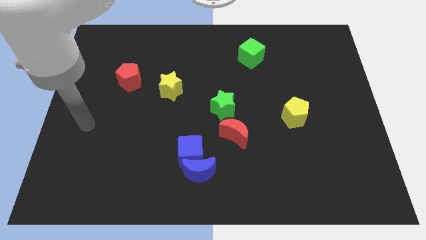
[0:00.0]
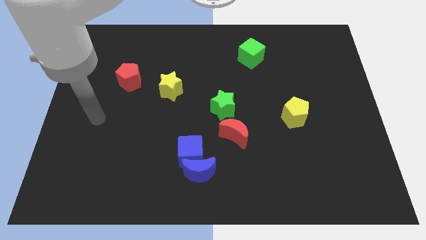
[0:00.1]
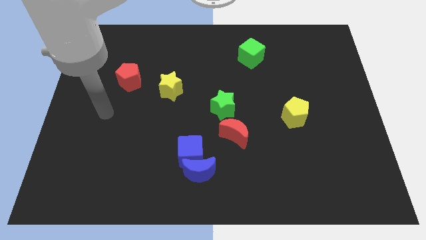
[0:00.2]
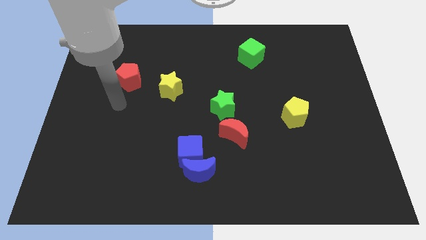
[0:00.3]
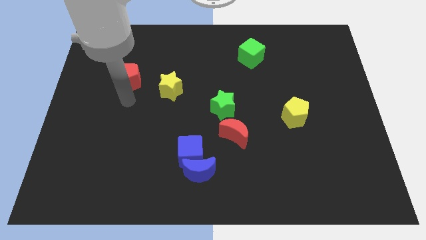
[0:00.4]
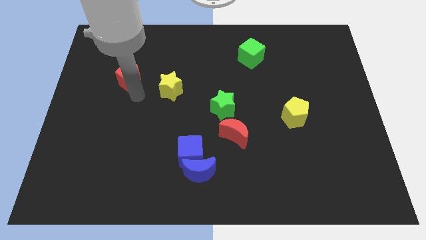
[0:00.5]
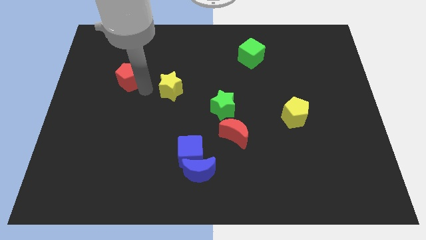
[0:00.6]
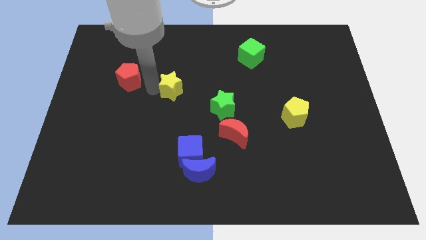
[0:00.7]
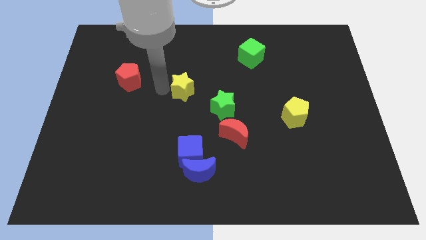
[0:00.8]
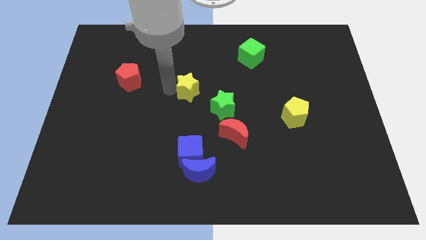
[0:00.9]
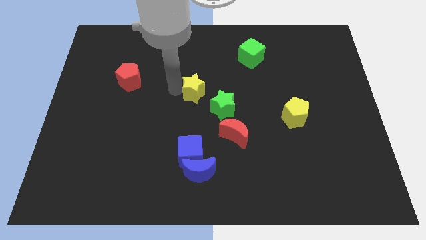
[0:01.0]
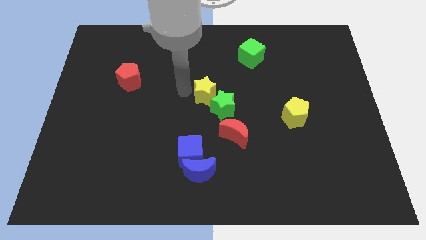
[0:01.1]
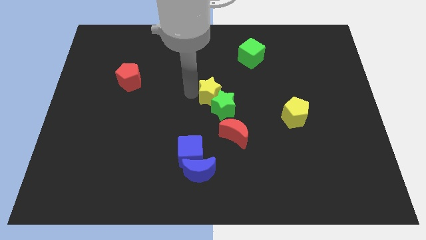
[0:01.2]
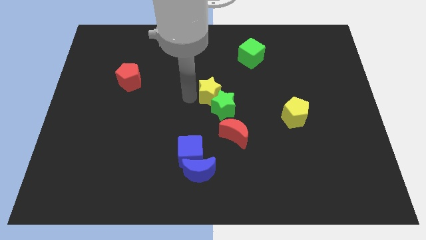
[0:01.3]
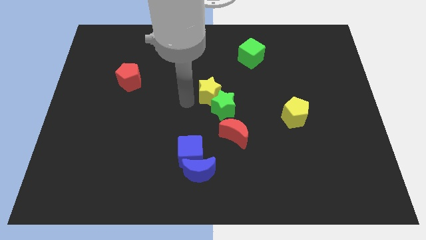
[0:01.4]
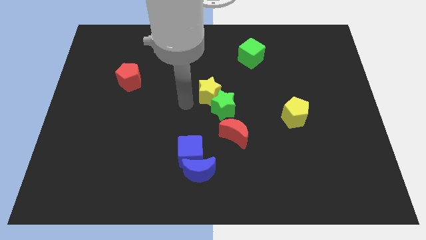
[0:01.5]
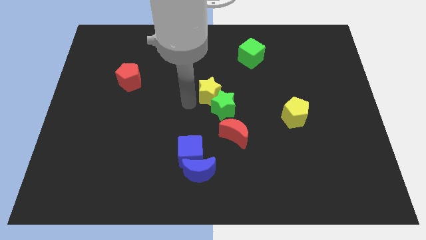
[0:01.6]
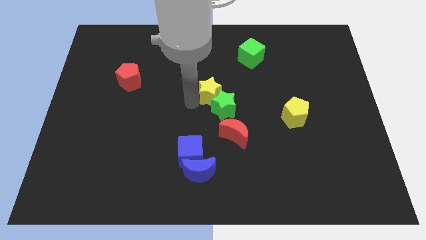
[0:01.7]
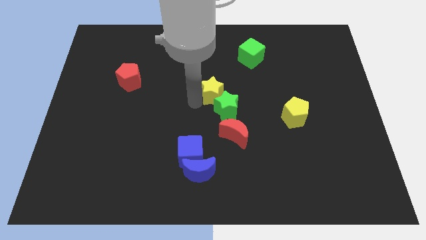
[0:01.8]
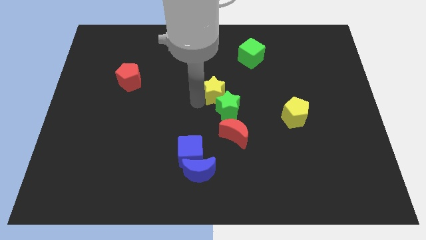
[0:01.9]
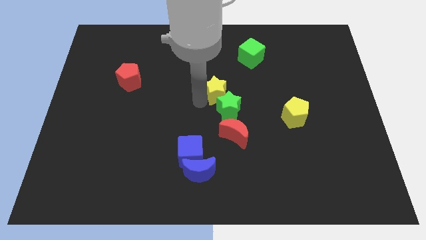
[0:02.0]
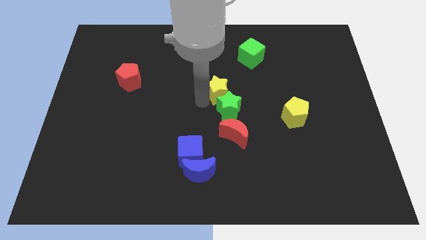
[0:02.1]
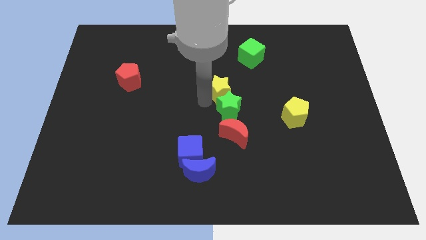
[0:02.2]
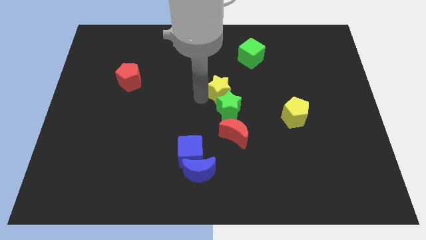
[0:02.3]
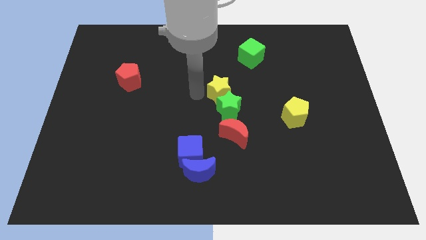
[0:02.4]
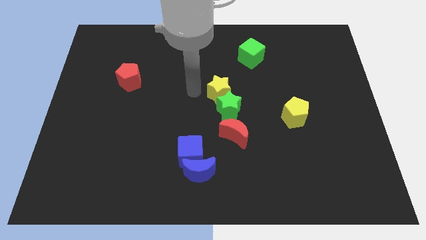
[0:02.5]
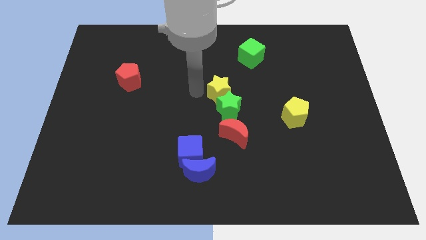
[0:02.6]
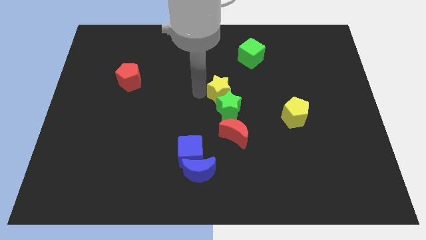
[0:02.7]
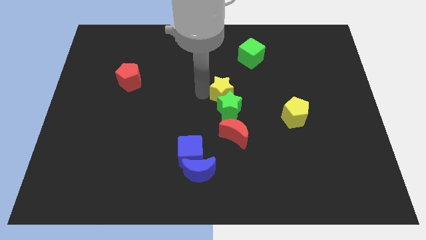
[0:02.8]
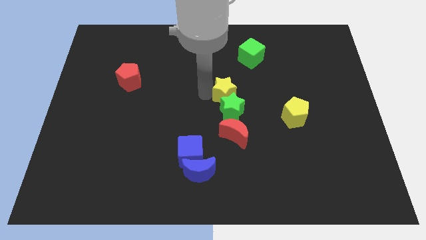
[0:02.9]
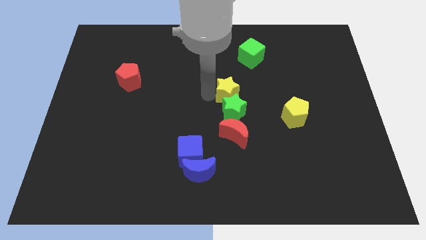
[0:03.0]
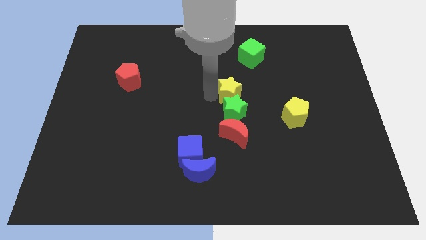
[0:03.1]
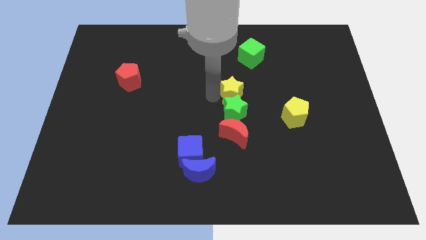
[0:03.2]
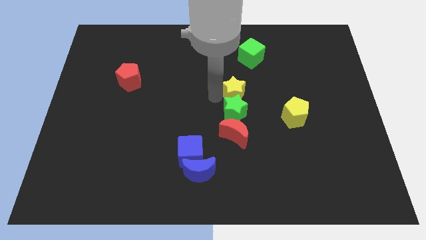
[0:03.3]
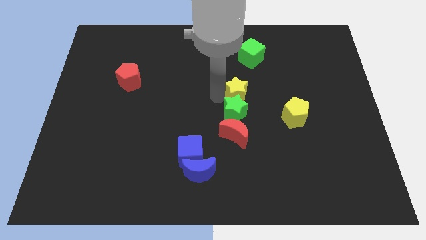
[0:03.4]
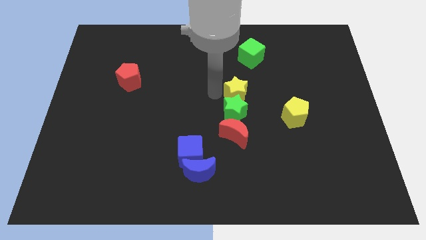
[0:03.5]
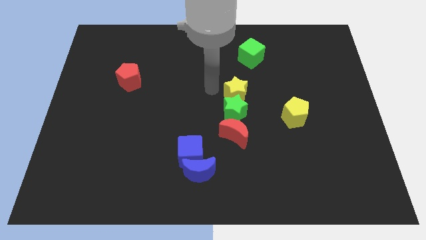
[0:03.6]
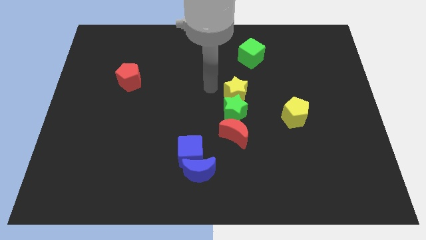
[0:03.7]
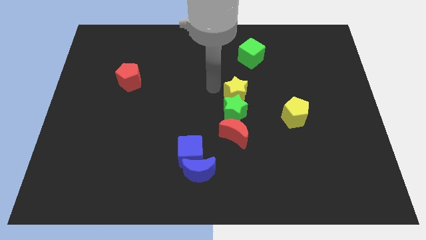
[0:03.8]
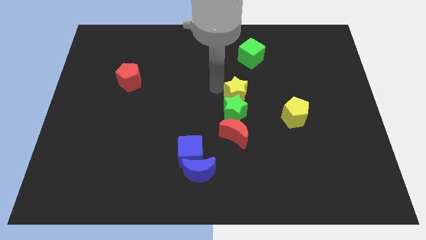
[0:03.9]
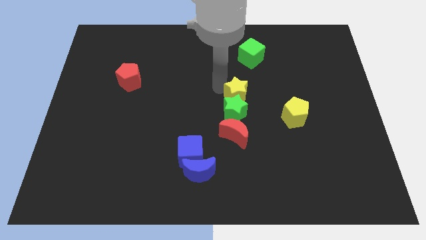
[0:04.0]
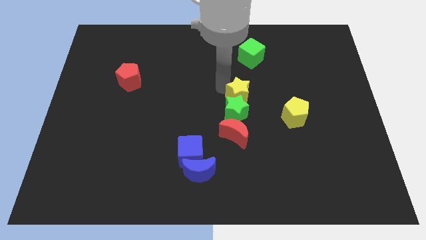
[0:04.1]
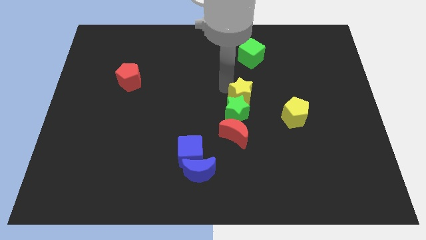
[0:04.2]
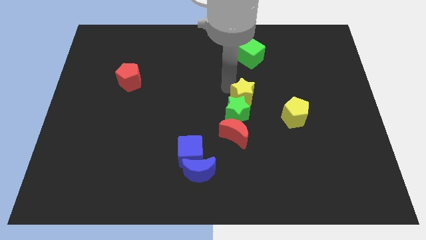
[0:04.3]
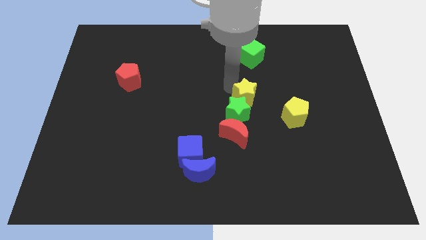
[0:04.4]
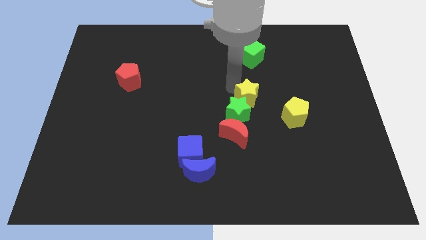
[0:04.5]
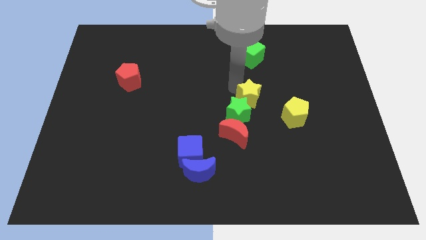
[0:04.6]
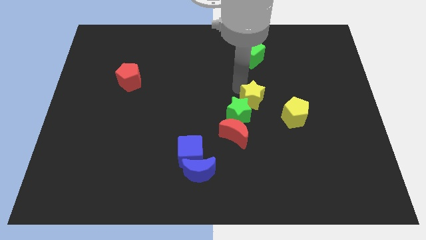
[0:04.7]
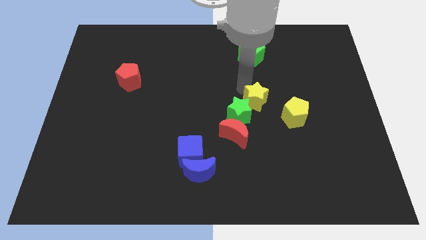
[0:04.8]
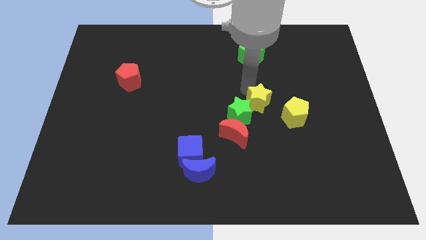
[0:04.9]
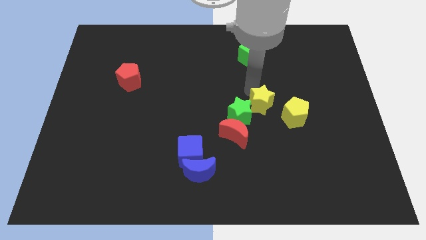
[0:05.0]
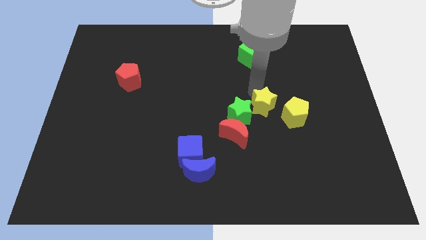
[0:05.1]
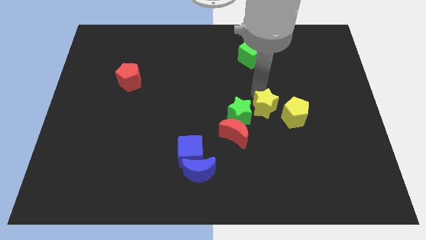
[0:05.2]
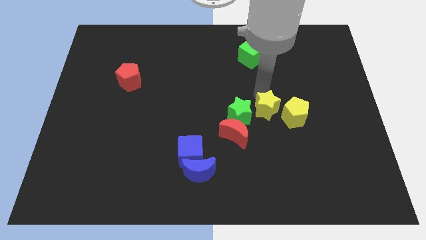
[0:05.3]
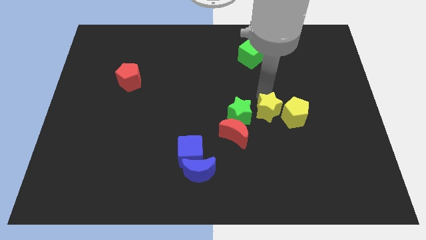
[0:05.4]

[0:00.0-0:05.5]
push the yellow star close to the yellow pentagon

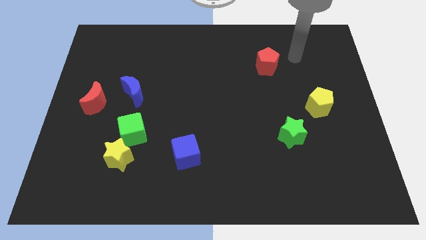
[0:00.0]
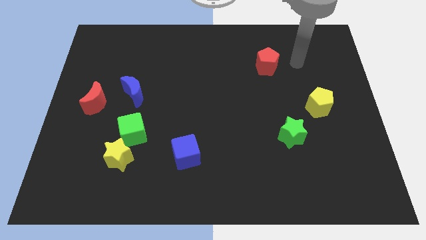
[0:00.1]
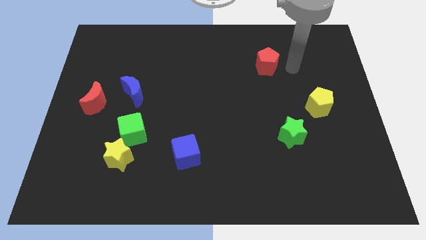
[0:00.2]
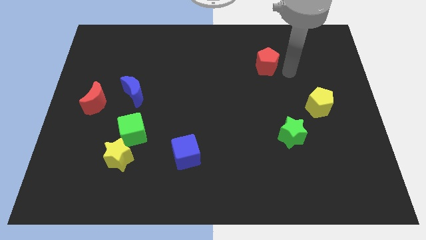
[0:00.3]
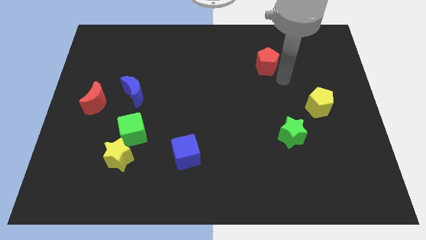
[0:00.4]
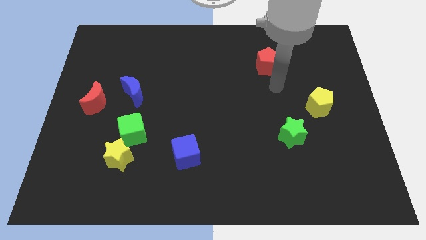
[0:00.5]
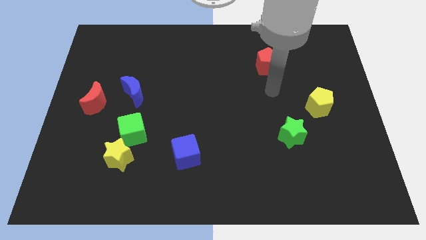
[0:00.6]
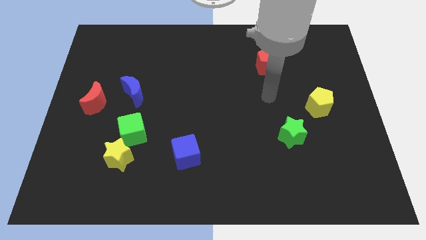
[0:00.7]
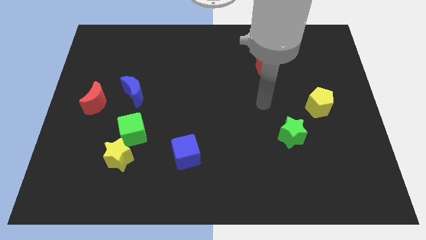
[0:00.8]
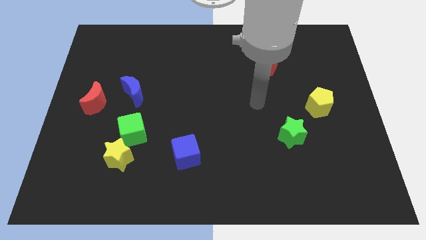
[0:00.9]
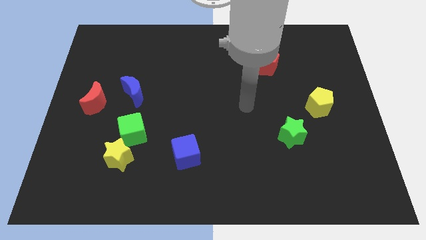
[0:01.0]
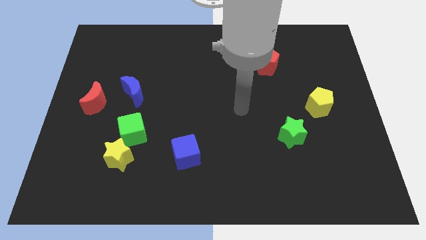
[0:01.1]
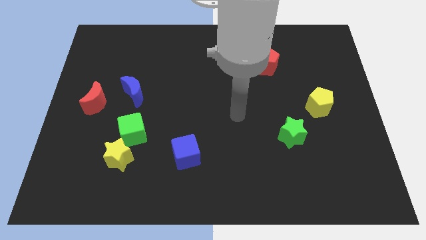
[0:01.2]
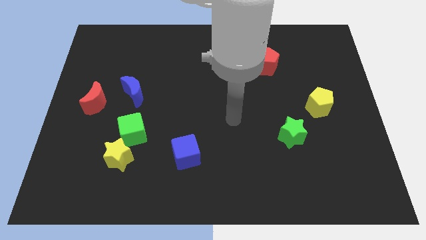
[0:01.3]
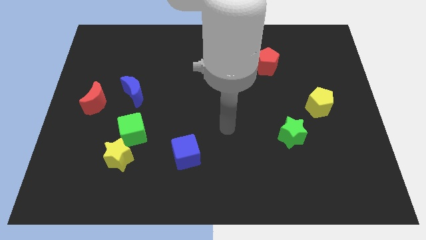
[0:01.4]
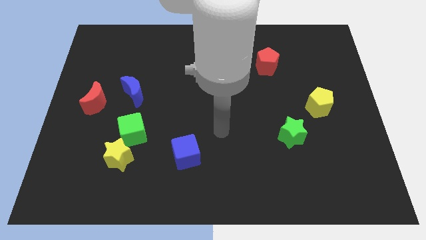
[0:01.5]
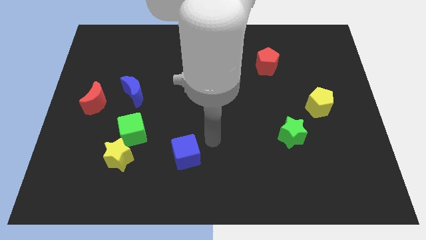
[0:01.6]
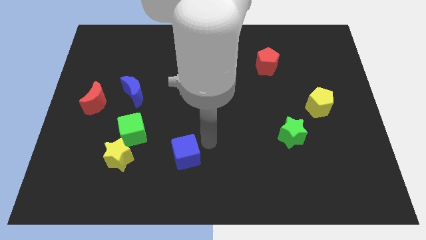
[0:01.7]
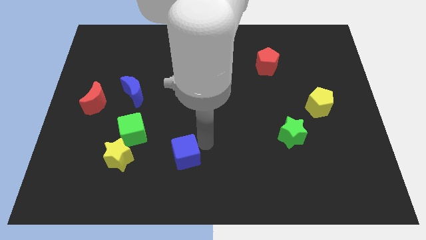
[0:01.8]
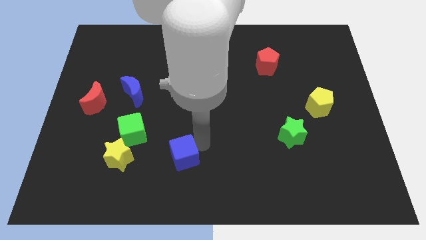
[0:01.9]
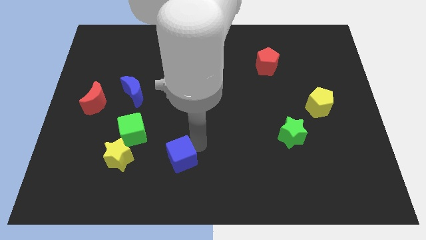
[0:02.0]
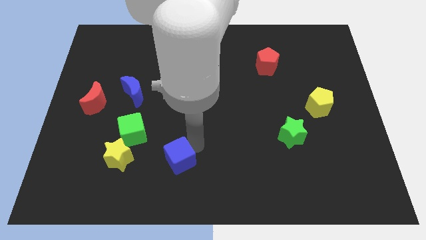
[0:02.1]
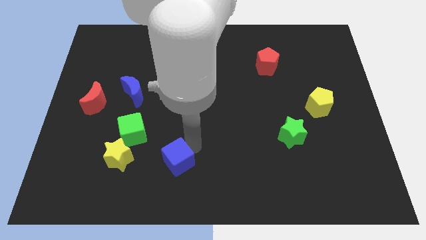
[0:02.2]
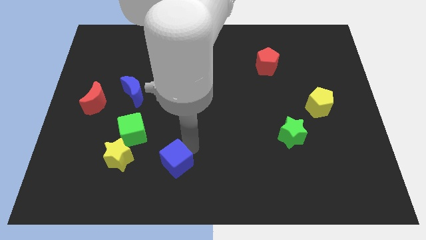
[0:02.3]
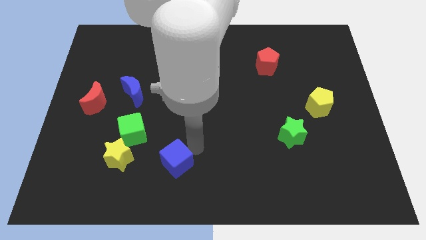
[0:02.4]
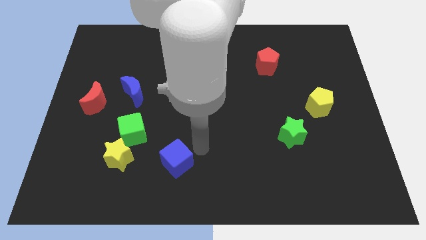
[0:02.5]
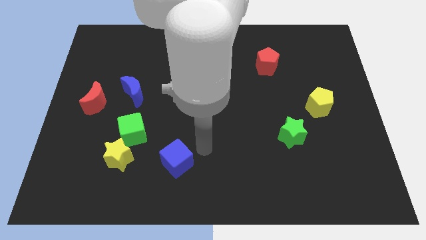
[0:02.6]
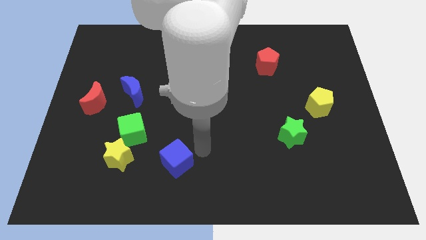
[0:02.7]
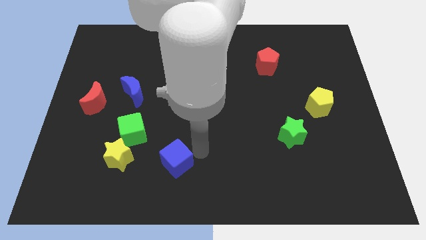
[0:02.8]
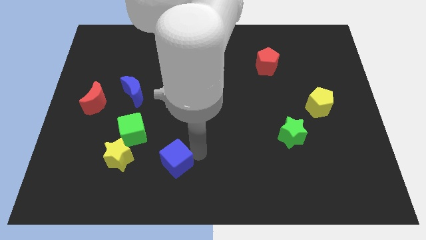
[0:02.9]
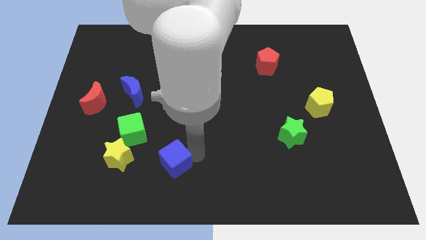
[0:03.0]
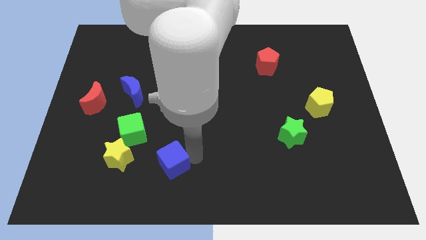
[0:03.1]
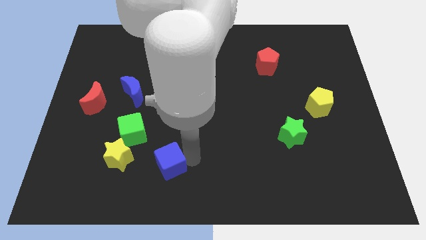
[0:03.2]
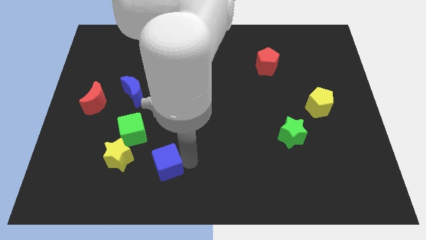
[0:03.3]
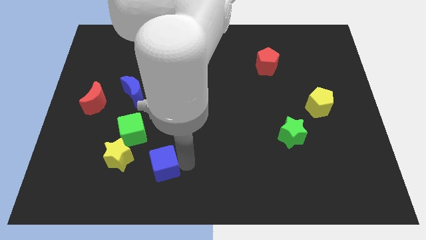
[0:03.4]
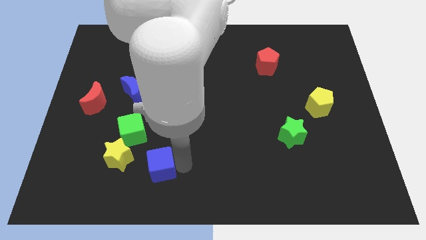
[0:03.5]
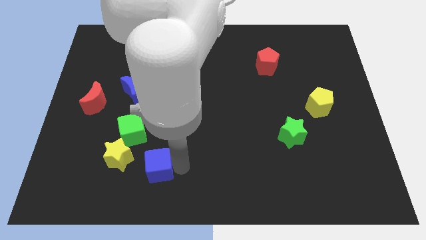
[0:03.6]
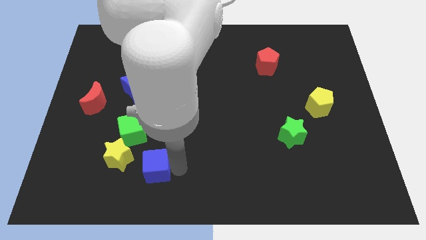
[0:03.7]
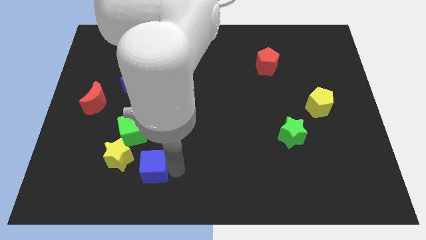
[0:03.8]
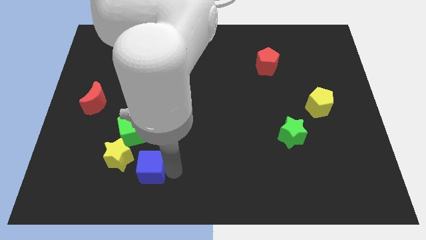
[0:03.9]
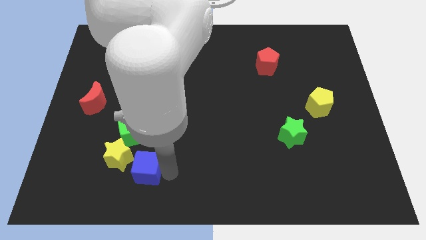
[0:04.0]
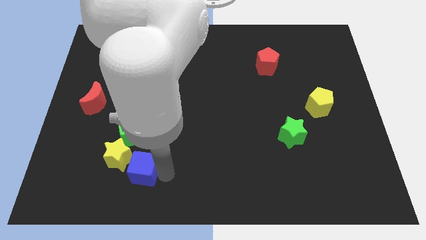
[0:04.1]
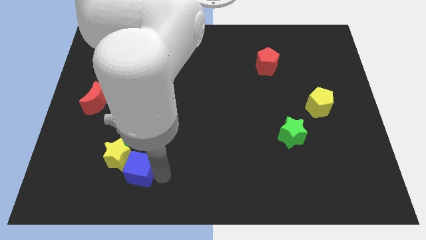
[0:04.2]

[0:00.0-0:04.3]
slide the blue cube next to the yellow star
